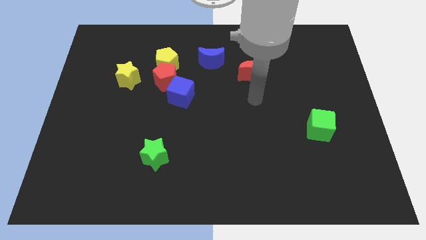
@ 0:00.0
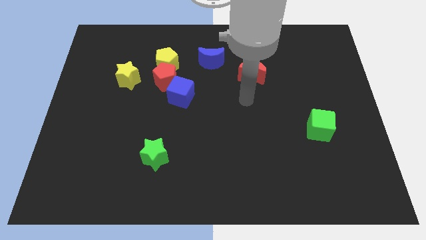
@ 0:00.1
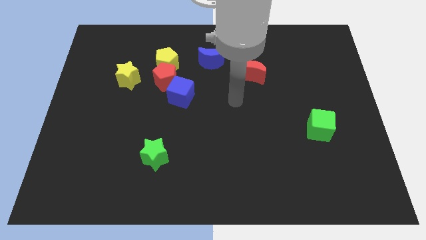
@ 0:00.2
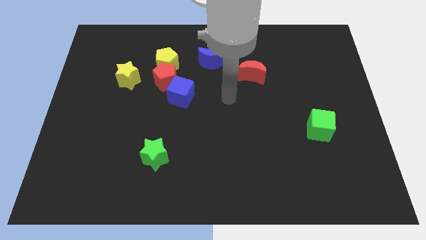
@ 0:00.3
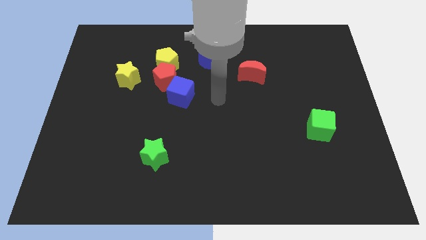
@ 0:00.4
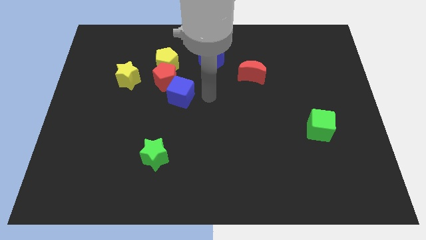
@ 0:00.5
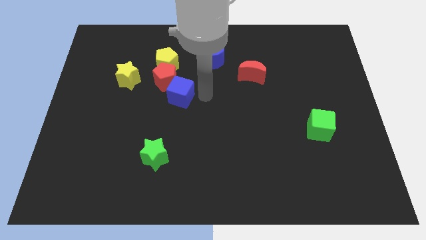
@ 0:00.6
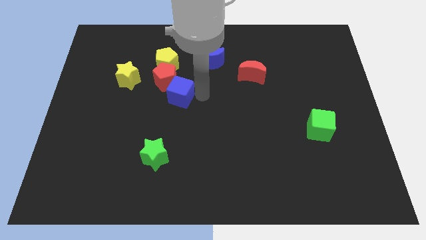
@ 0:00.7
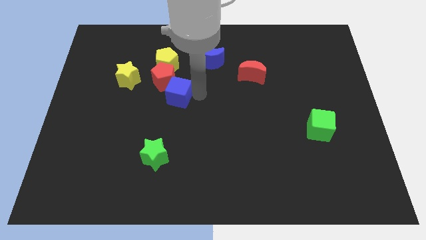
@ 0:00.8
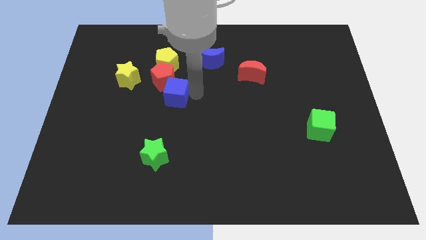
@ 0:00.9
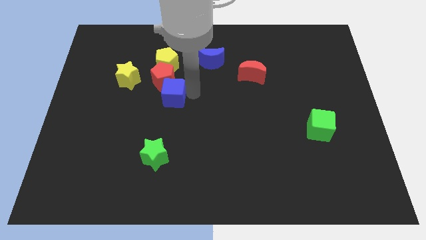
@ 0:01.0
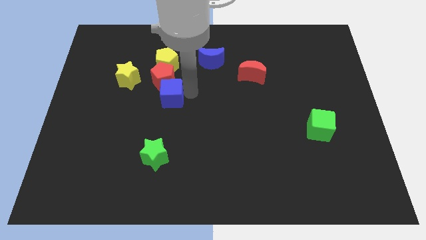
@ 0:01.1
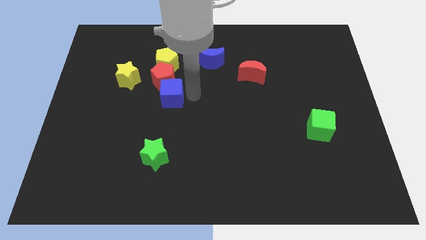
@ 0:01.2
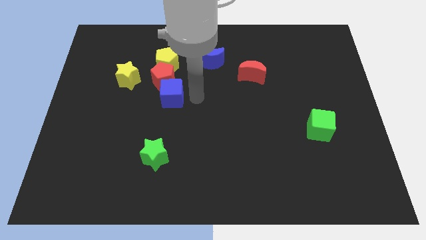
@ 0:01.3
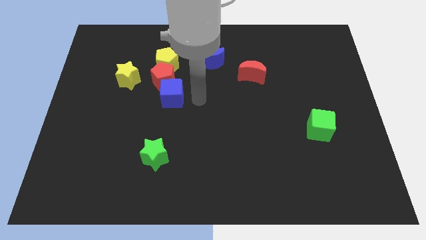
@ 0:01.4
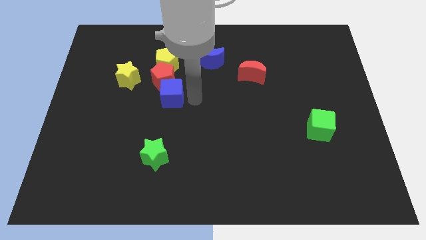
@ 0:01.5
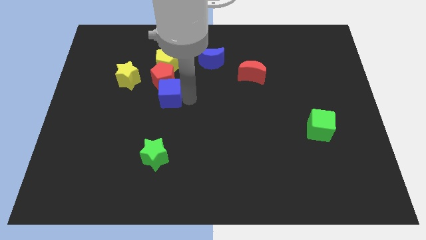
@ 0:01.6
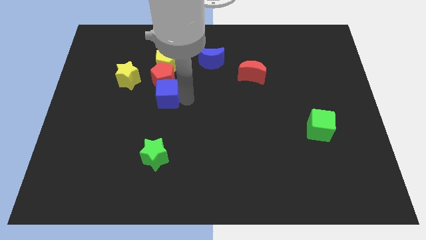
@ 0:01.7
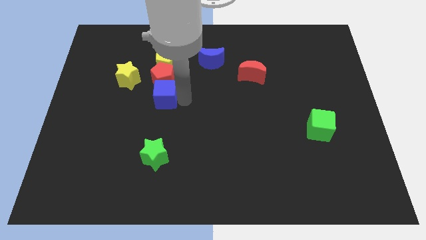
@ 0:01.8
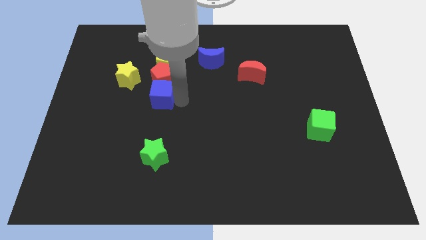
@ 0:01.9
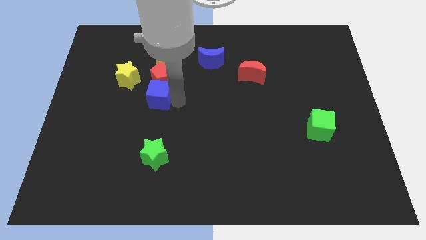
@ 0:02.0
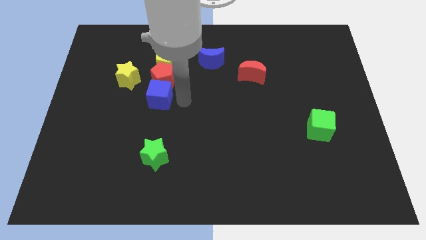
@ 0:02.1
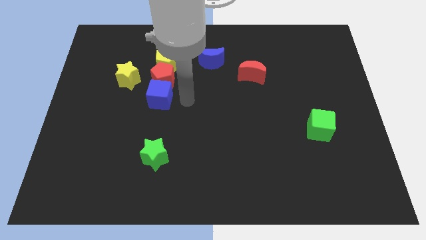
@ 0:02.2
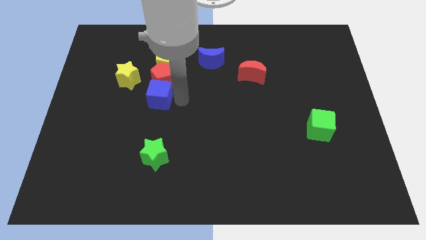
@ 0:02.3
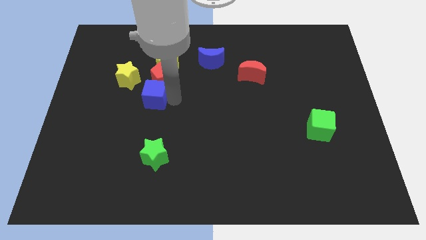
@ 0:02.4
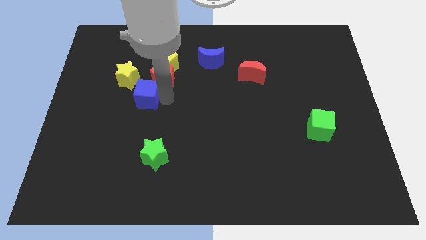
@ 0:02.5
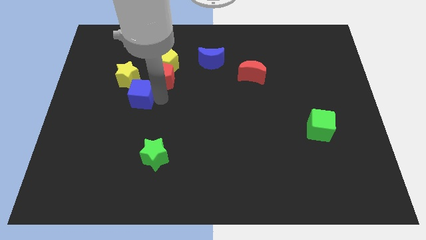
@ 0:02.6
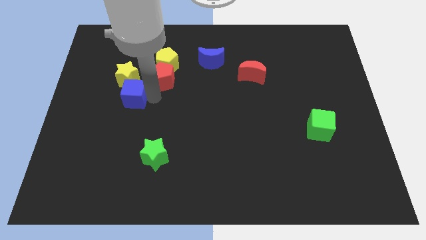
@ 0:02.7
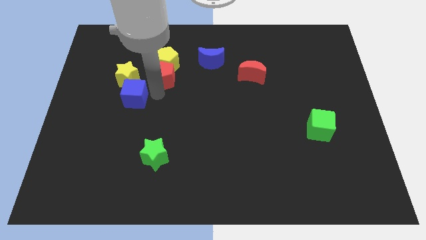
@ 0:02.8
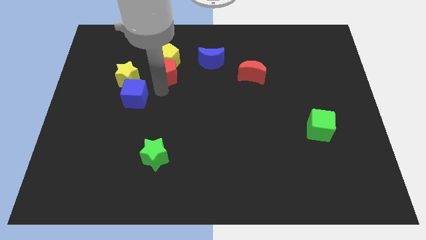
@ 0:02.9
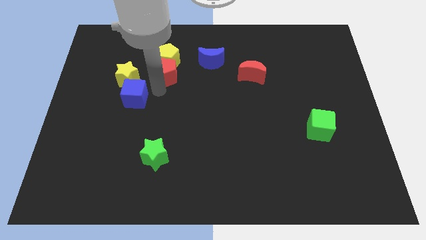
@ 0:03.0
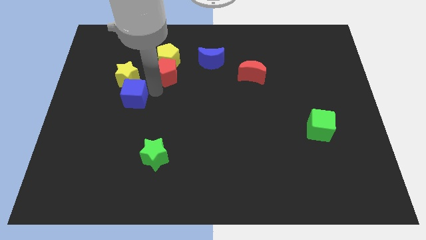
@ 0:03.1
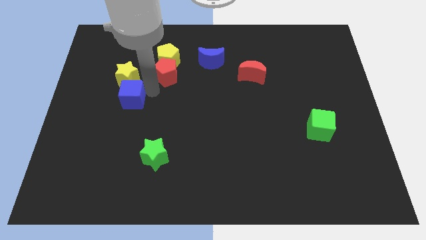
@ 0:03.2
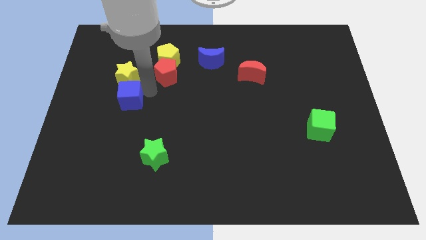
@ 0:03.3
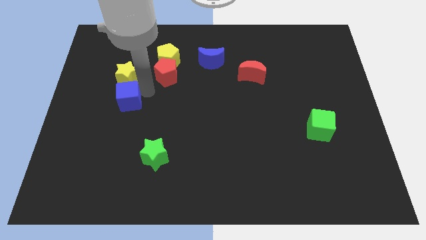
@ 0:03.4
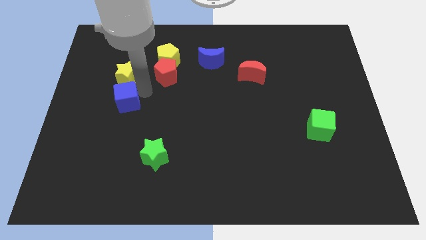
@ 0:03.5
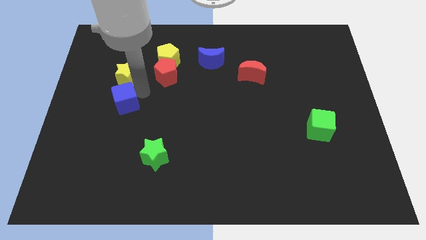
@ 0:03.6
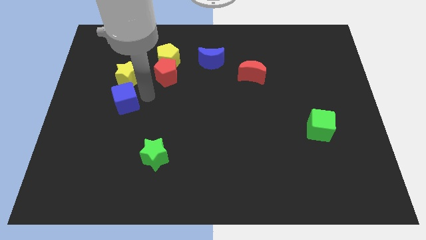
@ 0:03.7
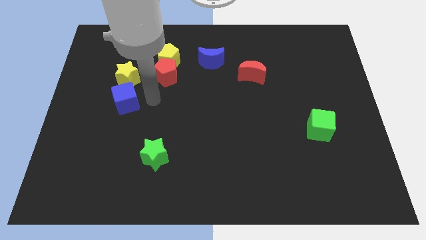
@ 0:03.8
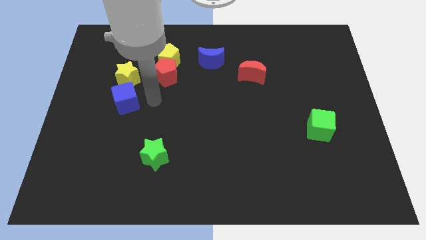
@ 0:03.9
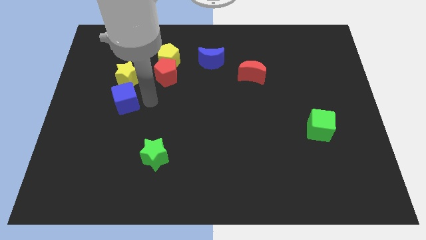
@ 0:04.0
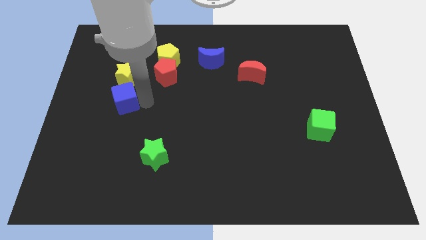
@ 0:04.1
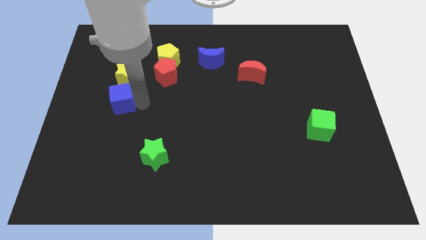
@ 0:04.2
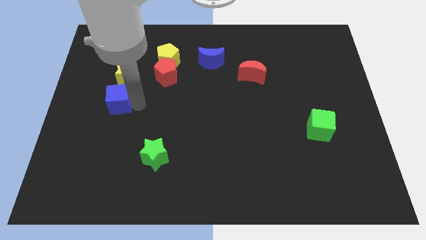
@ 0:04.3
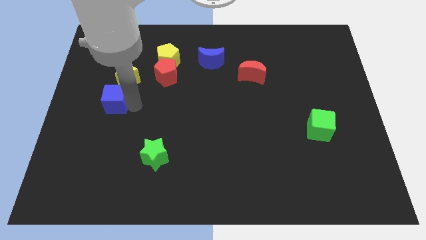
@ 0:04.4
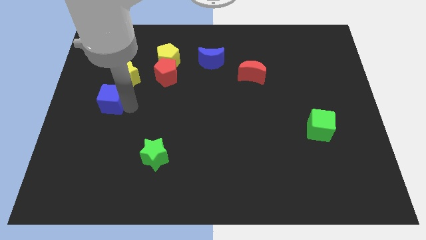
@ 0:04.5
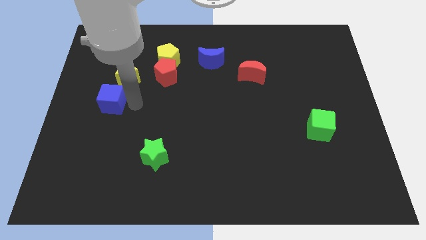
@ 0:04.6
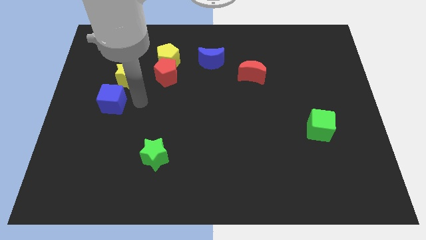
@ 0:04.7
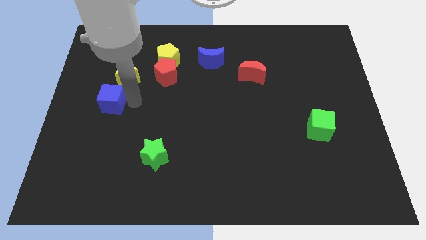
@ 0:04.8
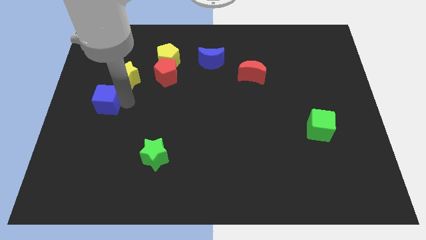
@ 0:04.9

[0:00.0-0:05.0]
put the blue cube to the left side

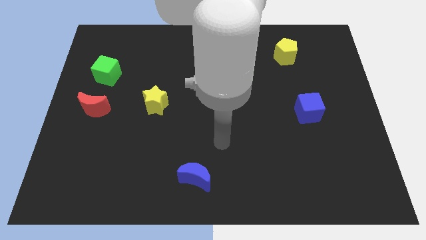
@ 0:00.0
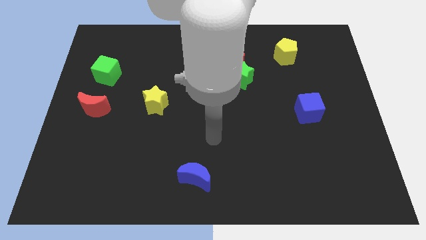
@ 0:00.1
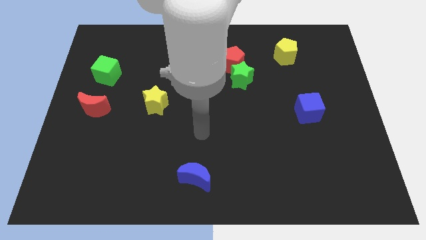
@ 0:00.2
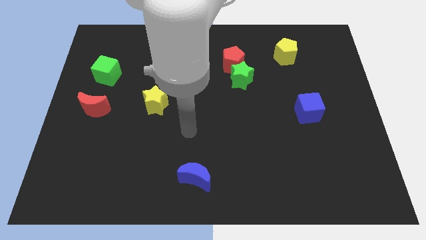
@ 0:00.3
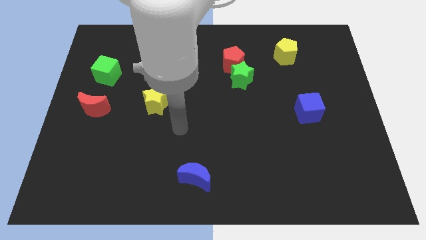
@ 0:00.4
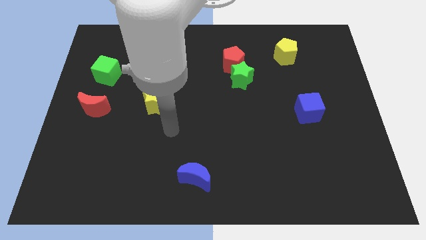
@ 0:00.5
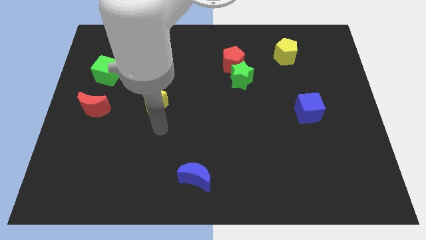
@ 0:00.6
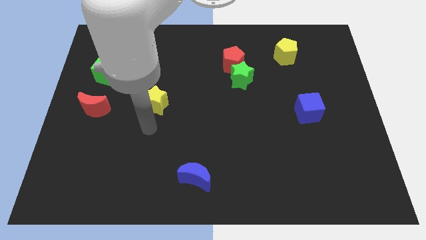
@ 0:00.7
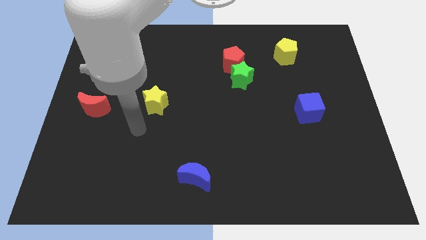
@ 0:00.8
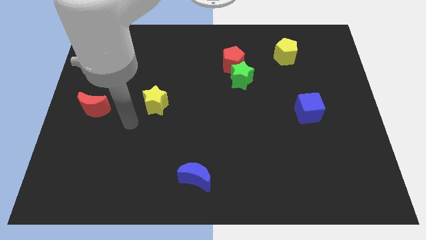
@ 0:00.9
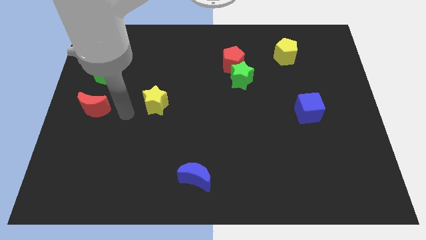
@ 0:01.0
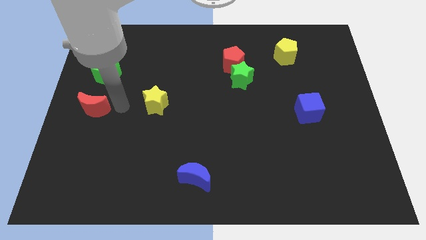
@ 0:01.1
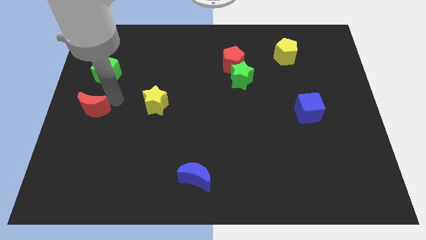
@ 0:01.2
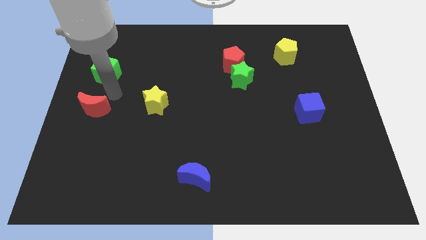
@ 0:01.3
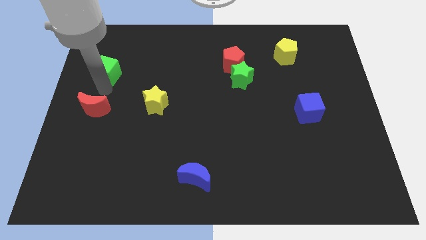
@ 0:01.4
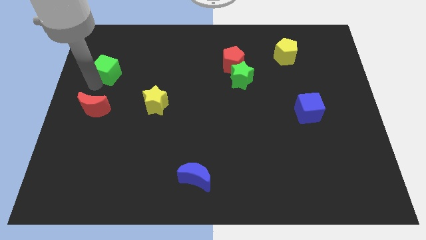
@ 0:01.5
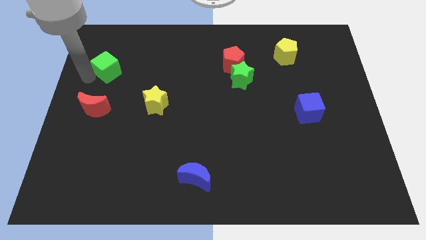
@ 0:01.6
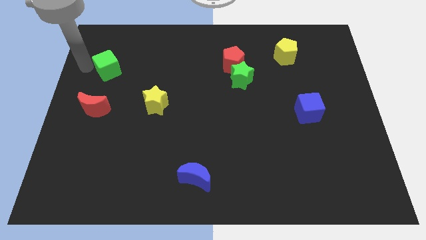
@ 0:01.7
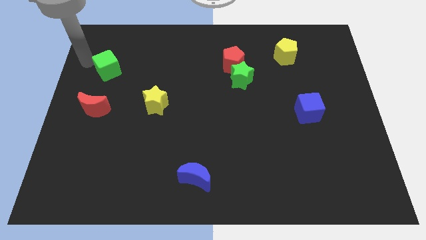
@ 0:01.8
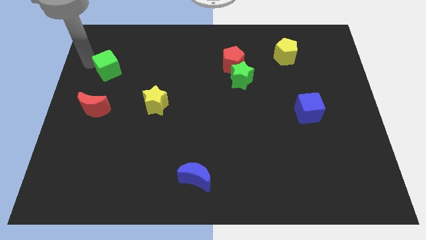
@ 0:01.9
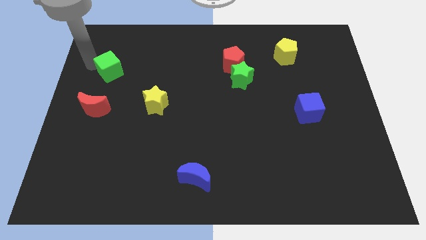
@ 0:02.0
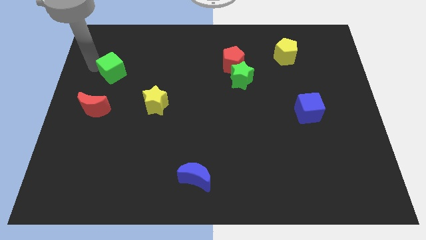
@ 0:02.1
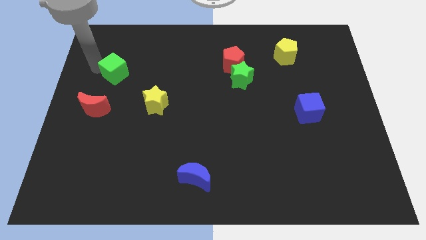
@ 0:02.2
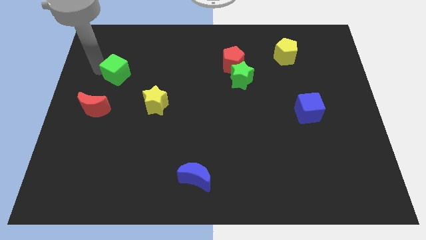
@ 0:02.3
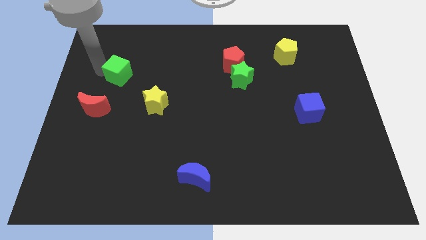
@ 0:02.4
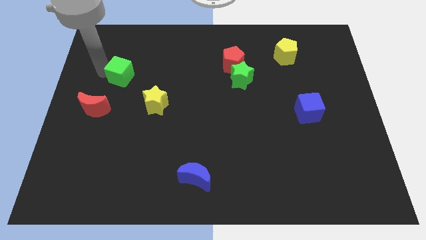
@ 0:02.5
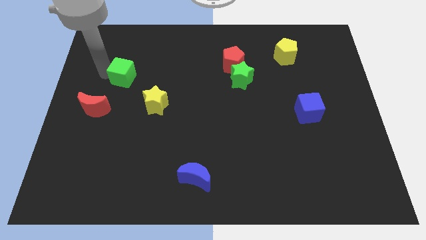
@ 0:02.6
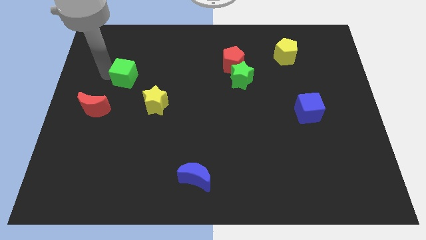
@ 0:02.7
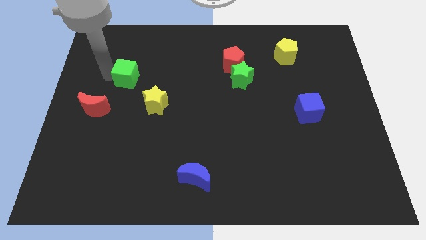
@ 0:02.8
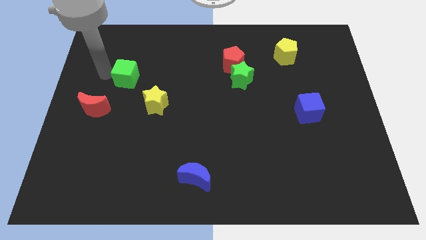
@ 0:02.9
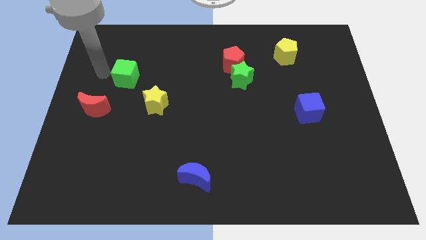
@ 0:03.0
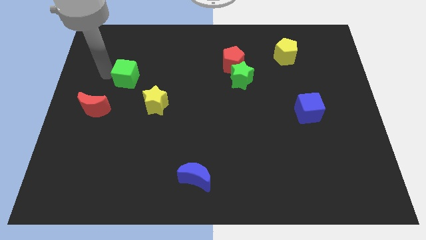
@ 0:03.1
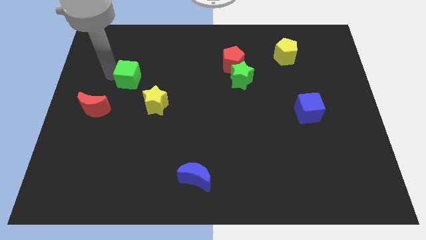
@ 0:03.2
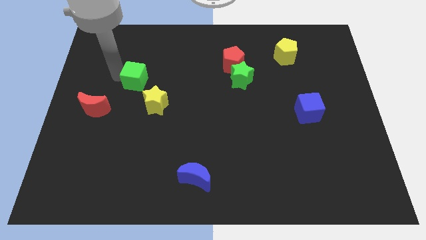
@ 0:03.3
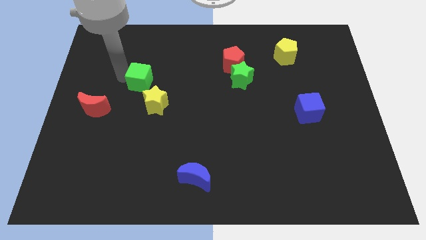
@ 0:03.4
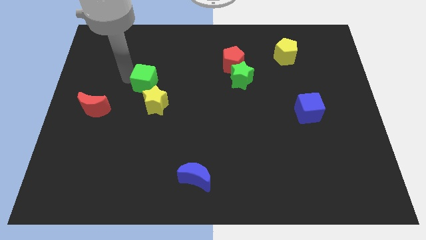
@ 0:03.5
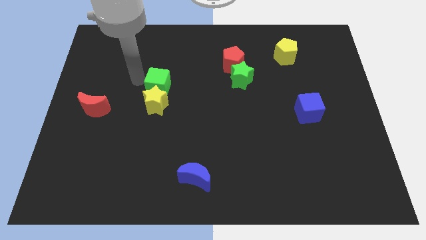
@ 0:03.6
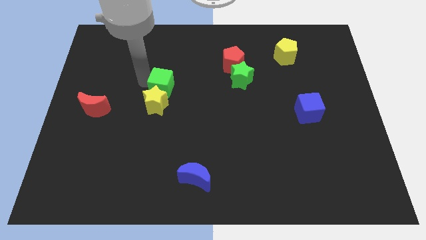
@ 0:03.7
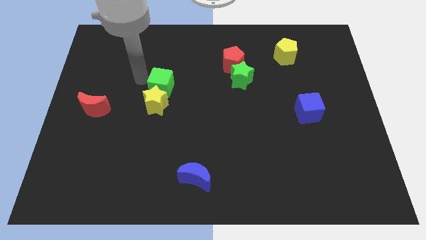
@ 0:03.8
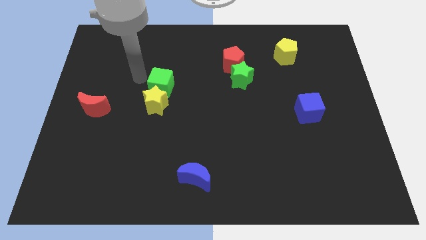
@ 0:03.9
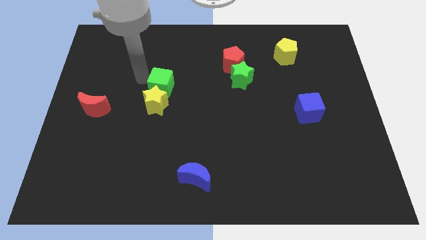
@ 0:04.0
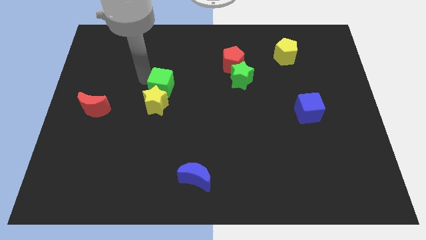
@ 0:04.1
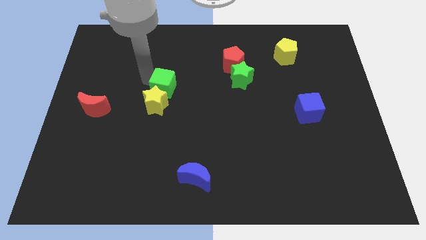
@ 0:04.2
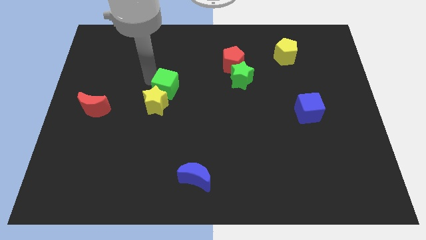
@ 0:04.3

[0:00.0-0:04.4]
move the green cube to the center of the board
